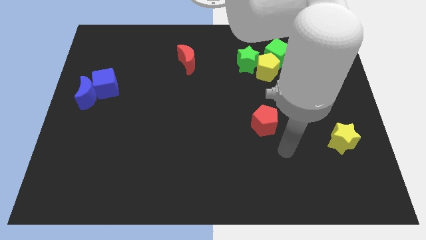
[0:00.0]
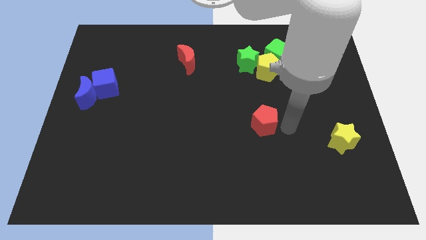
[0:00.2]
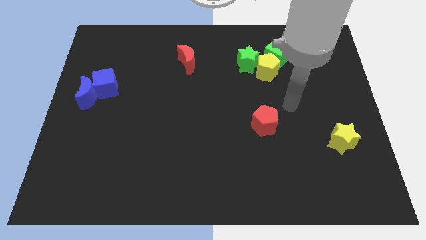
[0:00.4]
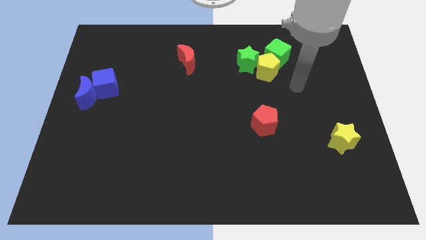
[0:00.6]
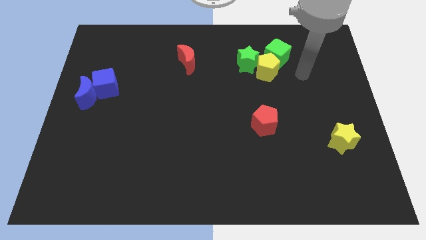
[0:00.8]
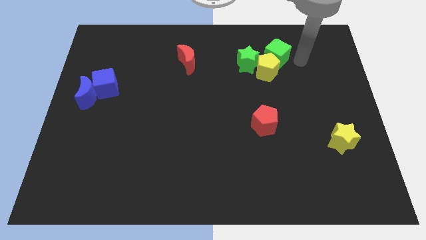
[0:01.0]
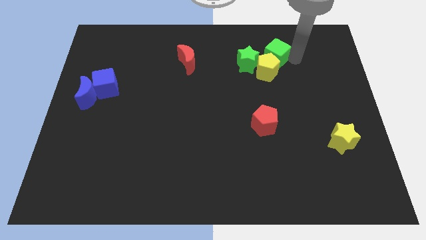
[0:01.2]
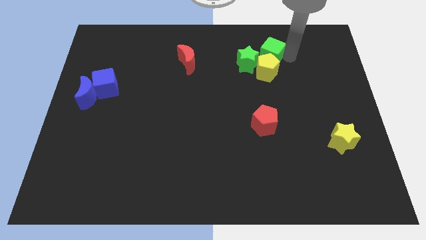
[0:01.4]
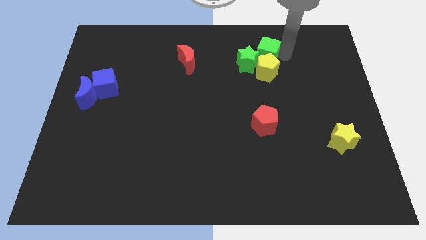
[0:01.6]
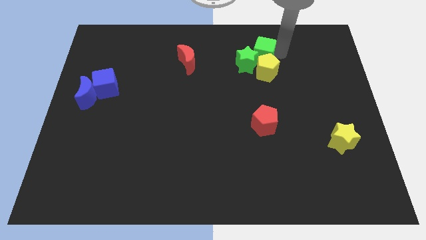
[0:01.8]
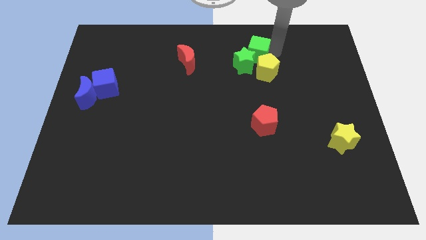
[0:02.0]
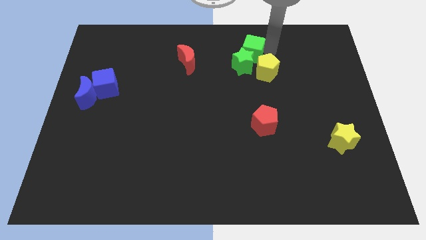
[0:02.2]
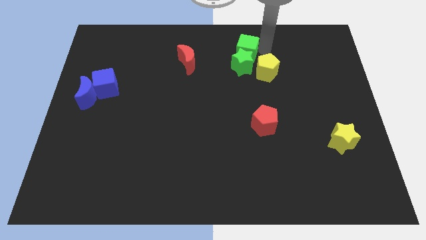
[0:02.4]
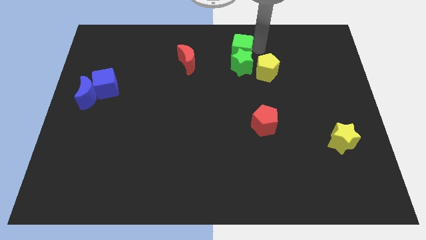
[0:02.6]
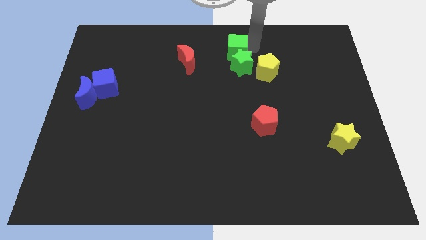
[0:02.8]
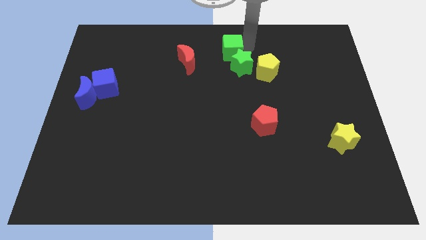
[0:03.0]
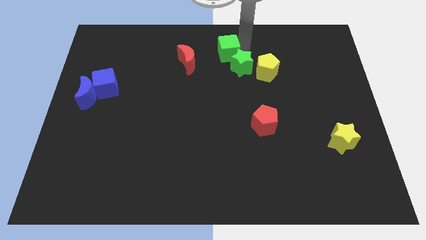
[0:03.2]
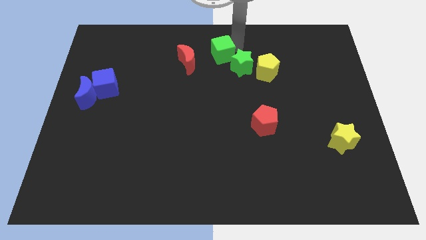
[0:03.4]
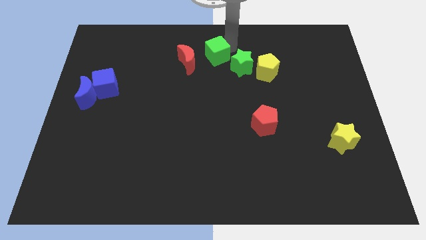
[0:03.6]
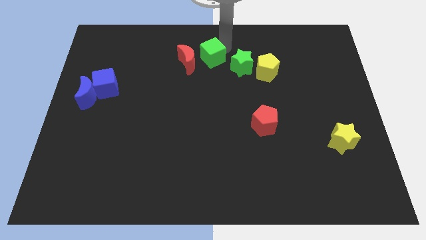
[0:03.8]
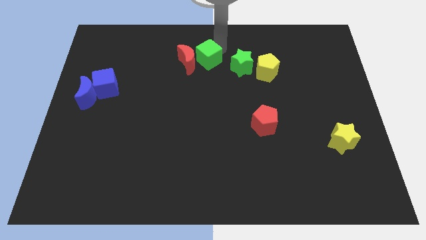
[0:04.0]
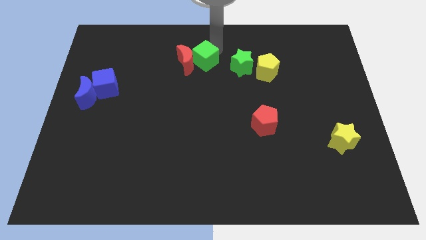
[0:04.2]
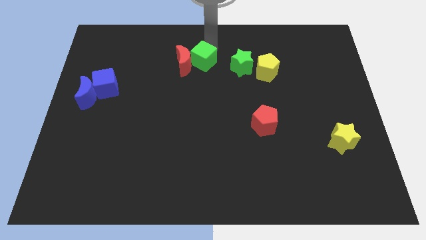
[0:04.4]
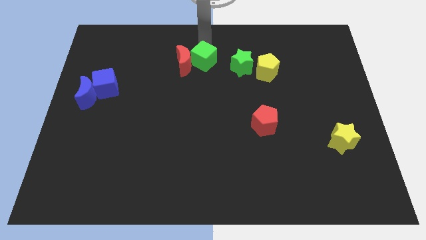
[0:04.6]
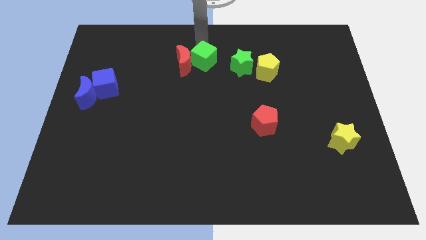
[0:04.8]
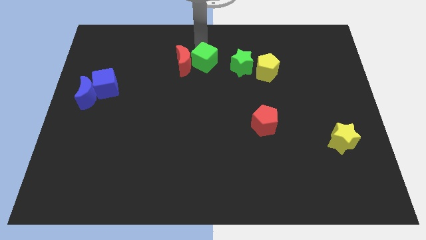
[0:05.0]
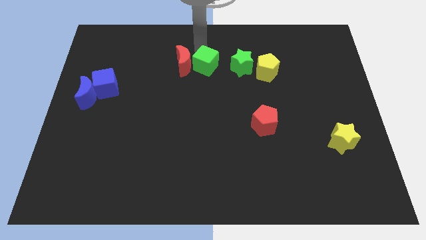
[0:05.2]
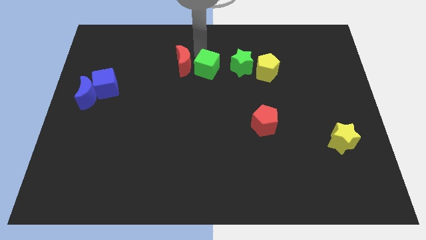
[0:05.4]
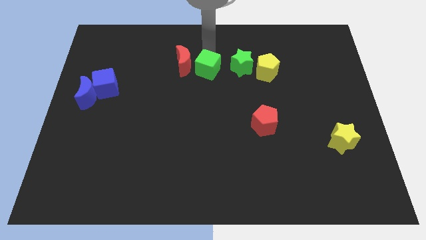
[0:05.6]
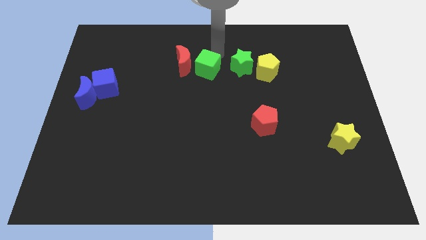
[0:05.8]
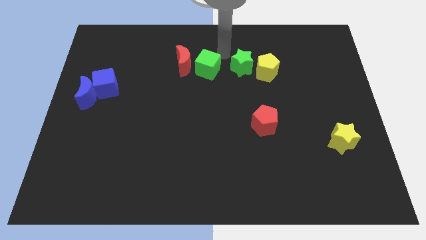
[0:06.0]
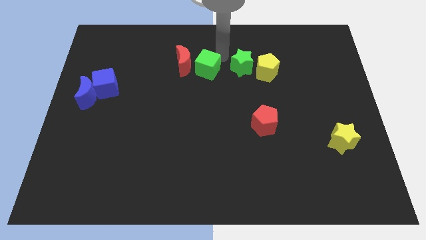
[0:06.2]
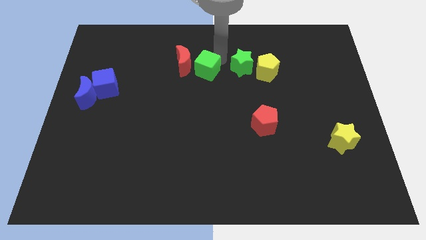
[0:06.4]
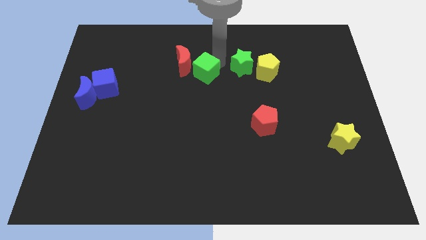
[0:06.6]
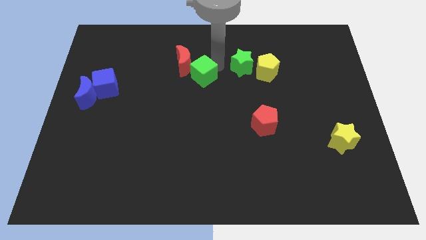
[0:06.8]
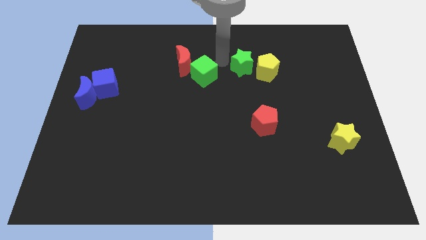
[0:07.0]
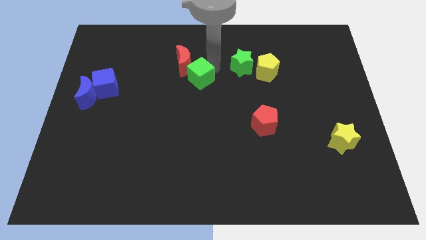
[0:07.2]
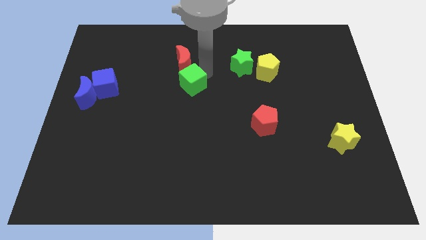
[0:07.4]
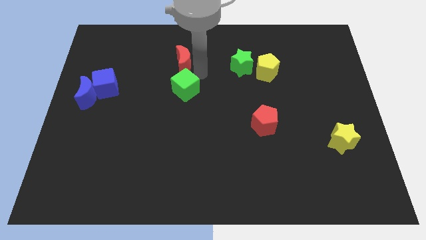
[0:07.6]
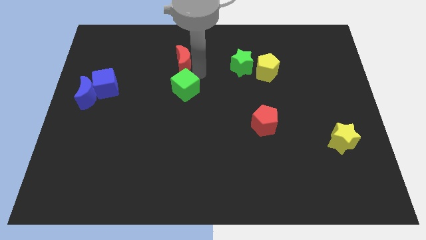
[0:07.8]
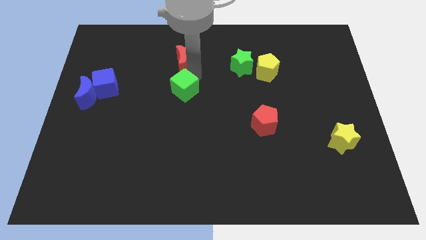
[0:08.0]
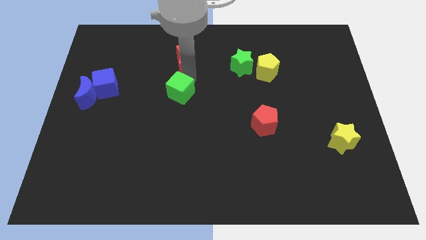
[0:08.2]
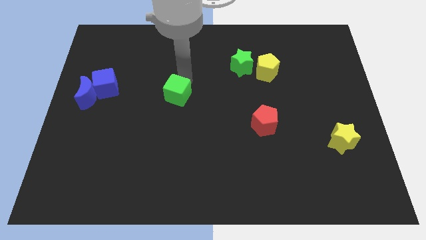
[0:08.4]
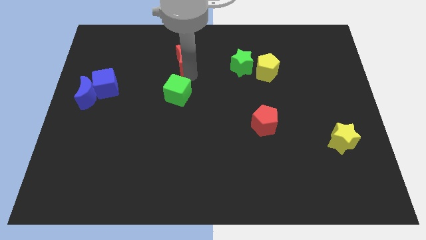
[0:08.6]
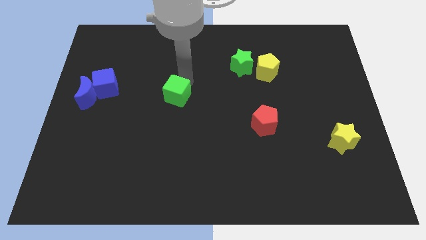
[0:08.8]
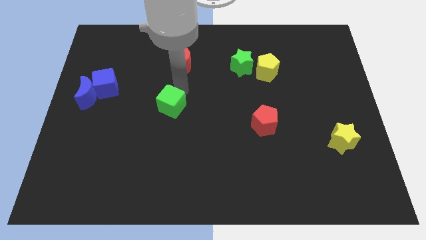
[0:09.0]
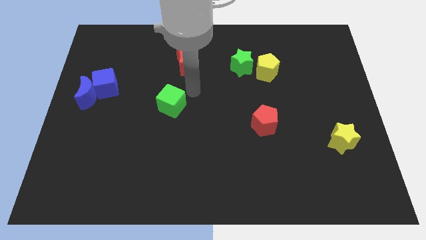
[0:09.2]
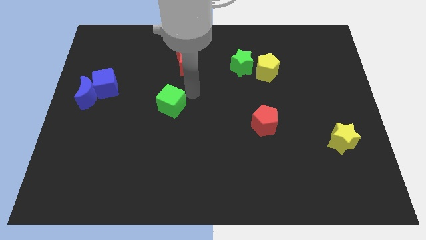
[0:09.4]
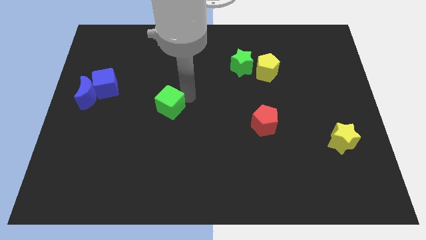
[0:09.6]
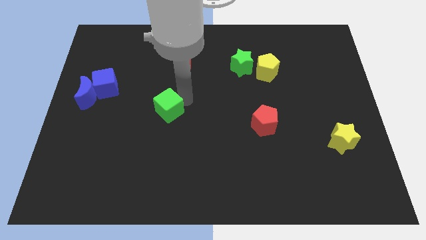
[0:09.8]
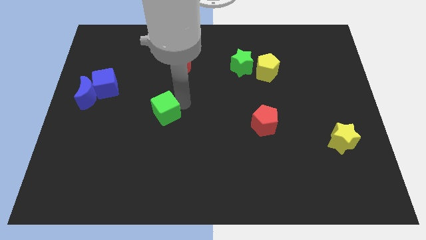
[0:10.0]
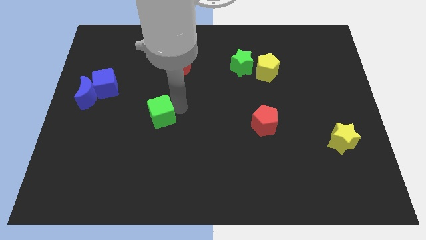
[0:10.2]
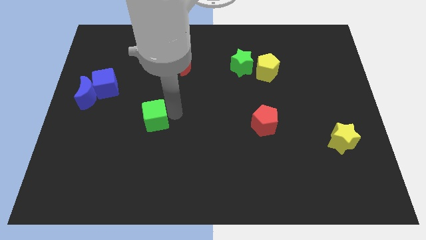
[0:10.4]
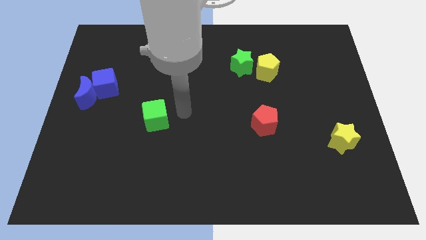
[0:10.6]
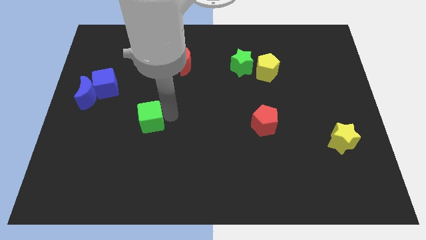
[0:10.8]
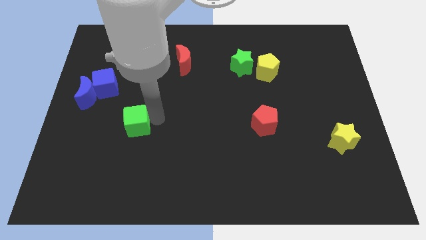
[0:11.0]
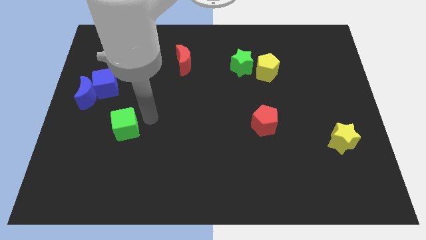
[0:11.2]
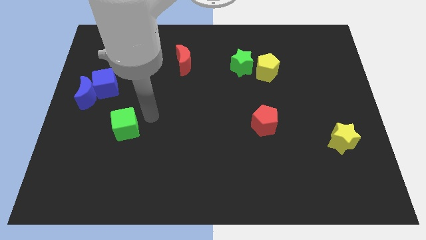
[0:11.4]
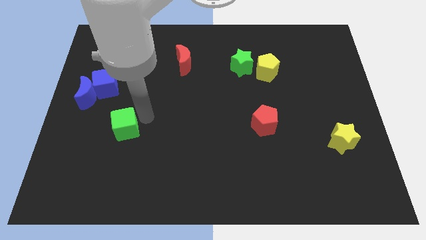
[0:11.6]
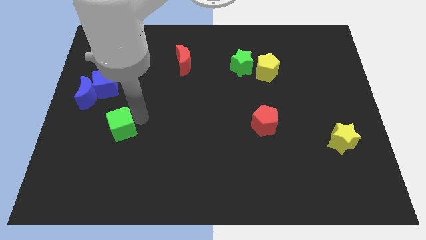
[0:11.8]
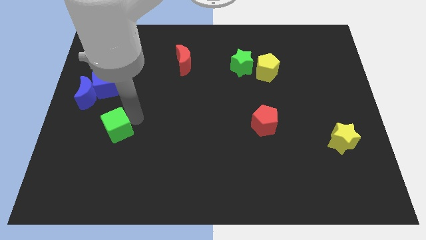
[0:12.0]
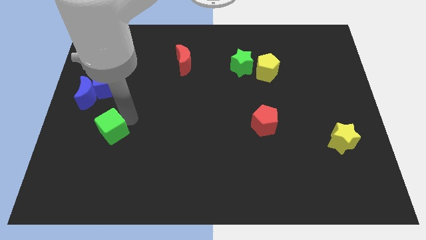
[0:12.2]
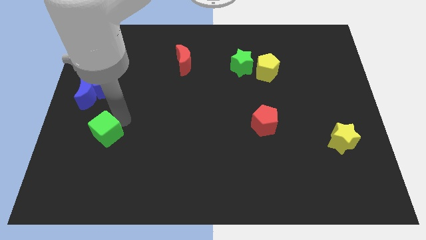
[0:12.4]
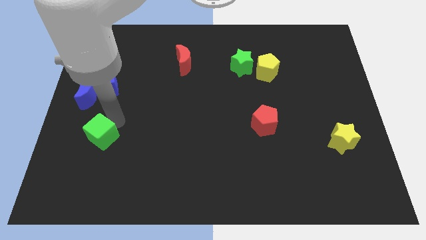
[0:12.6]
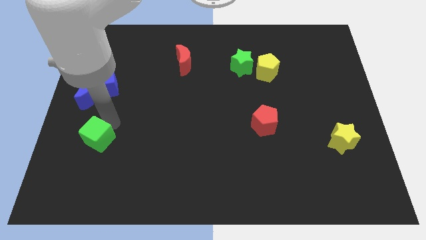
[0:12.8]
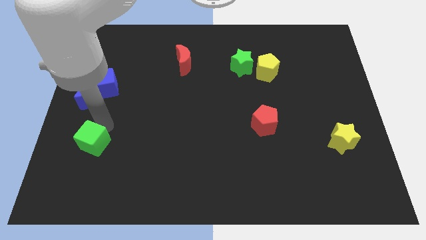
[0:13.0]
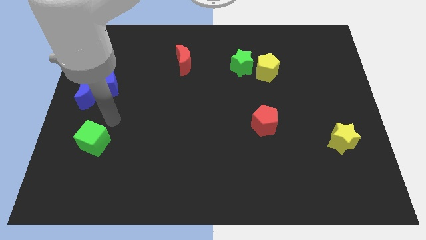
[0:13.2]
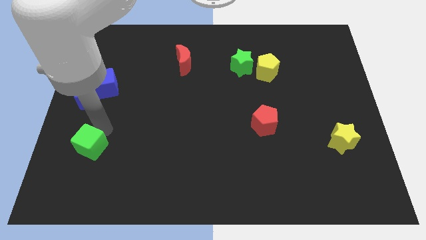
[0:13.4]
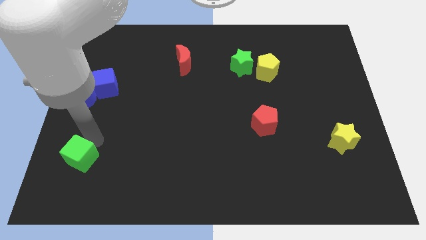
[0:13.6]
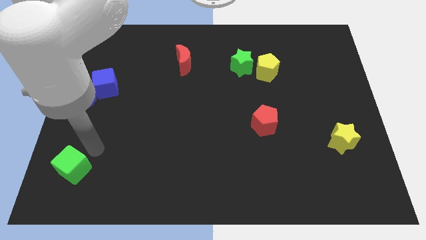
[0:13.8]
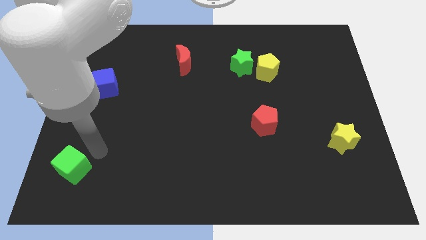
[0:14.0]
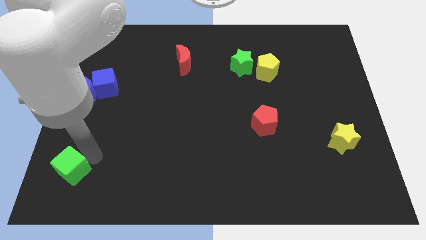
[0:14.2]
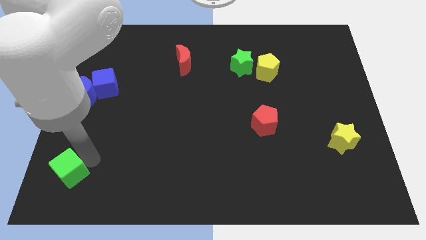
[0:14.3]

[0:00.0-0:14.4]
move the green cube to the bottom left
